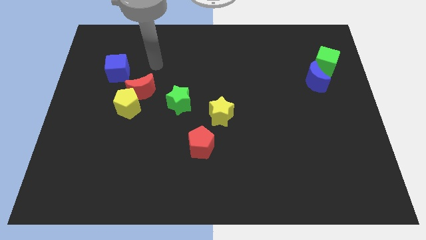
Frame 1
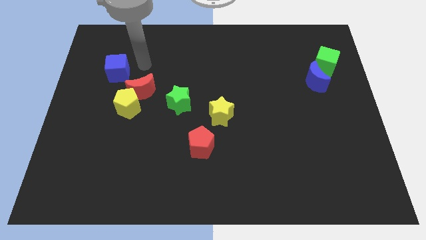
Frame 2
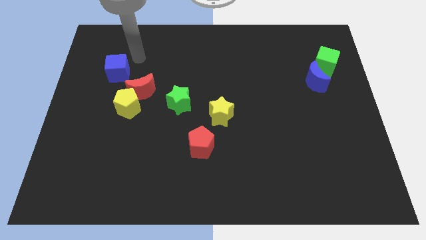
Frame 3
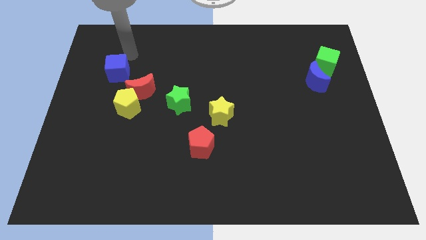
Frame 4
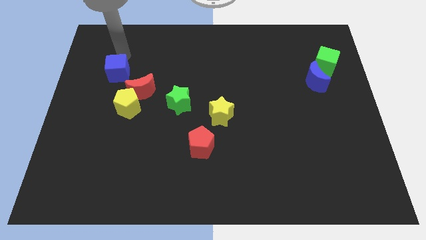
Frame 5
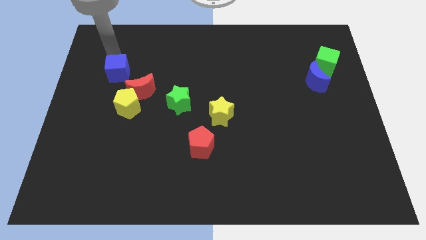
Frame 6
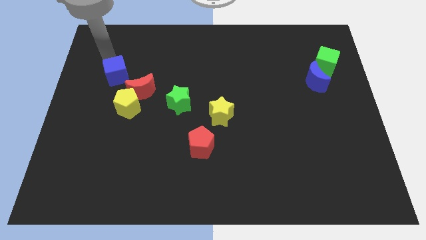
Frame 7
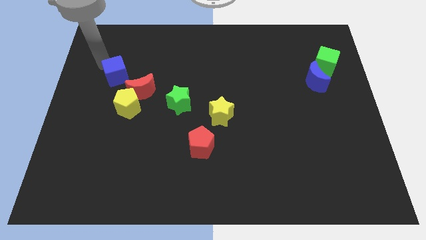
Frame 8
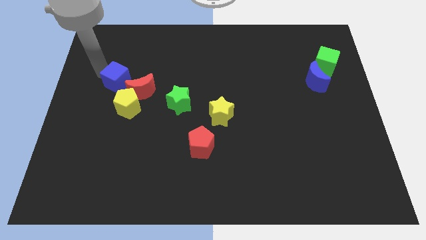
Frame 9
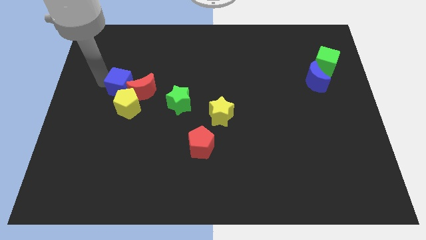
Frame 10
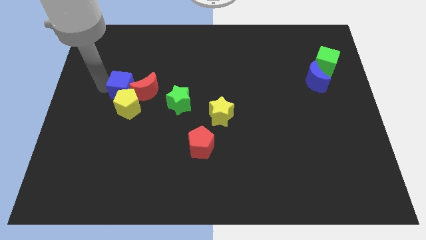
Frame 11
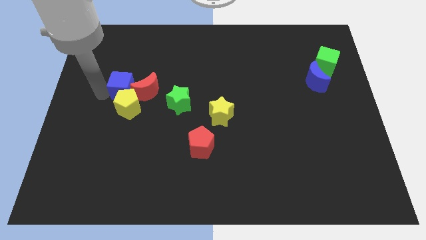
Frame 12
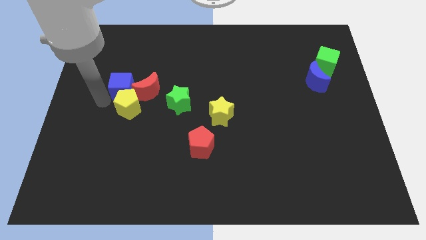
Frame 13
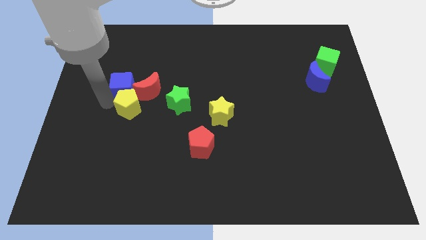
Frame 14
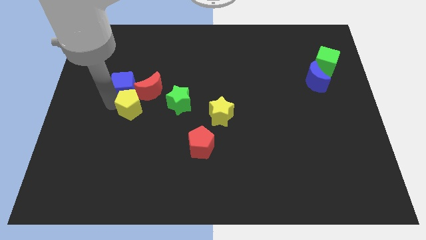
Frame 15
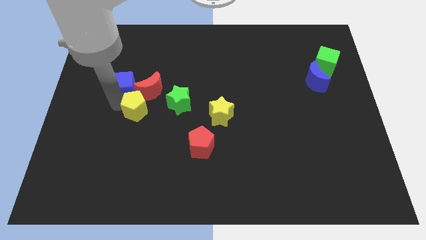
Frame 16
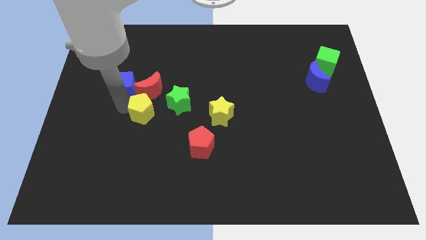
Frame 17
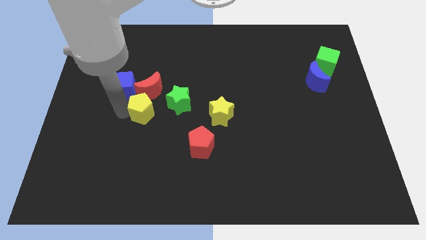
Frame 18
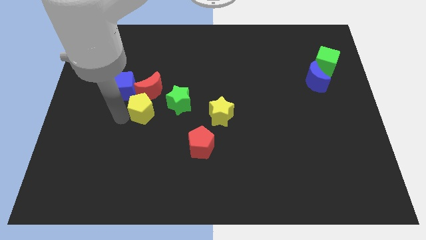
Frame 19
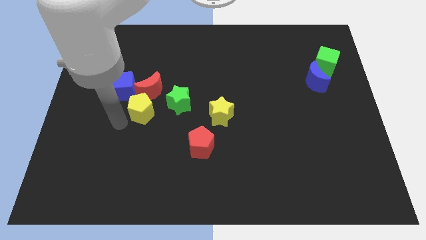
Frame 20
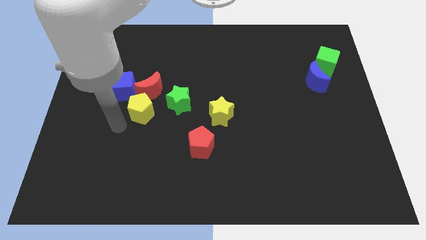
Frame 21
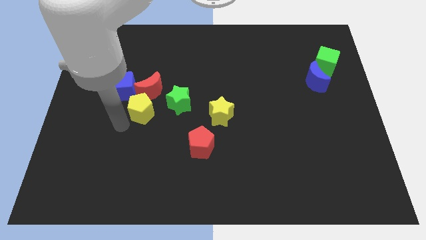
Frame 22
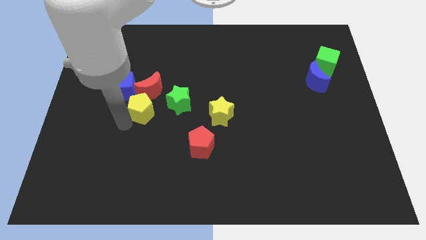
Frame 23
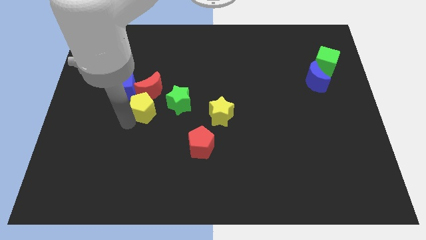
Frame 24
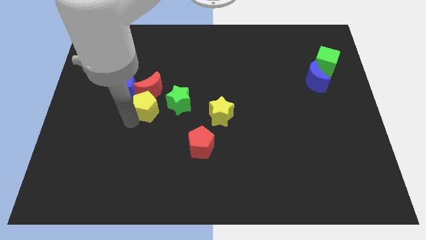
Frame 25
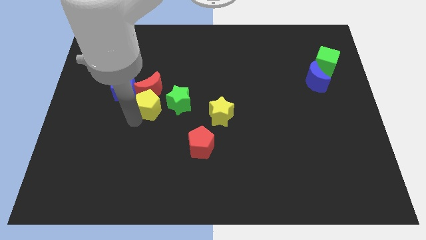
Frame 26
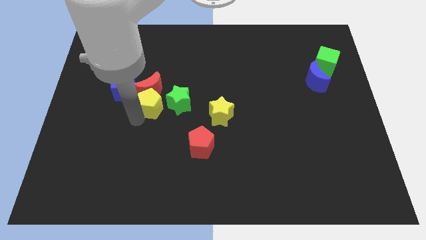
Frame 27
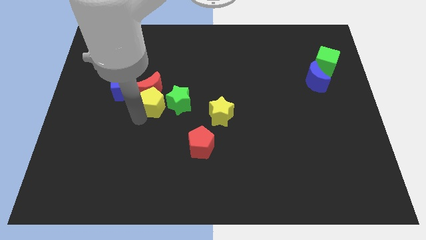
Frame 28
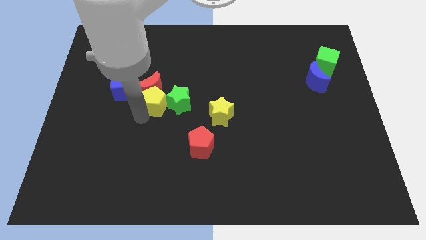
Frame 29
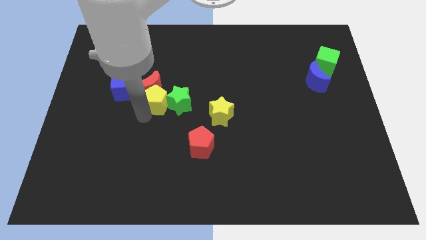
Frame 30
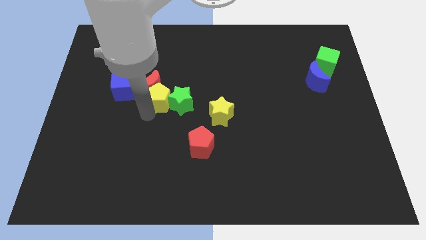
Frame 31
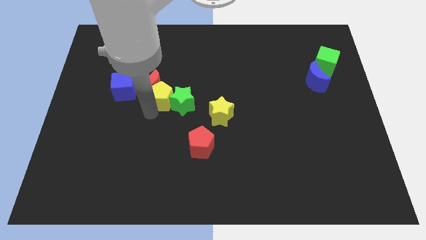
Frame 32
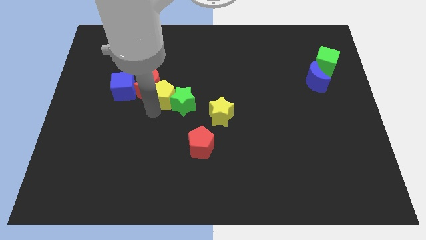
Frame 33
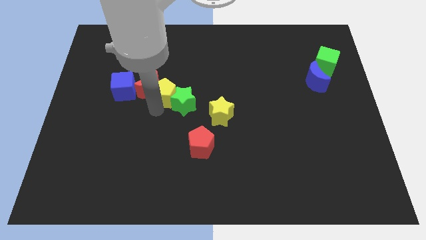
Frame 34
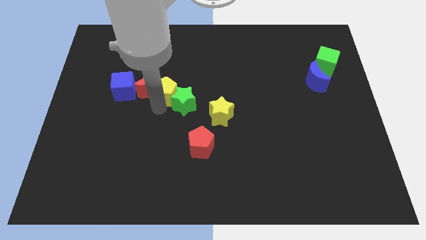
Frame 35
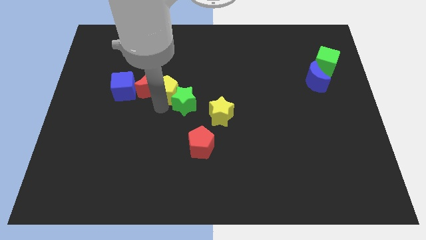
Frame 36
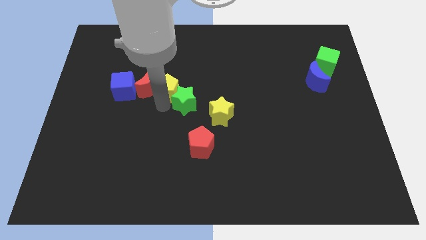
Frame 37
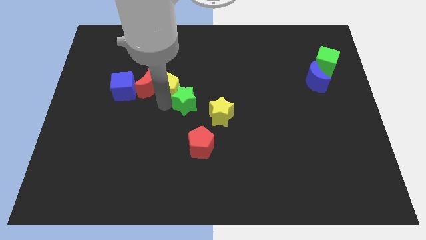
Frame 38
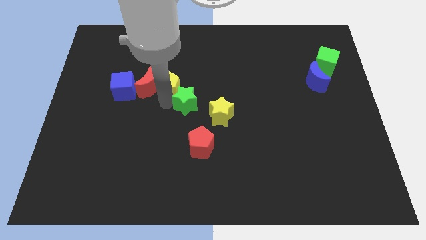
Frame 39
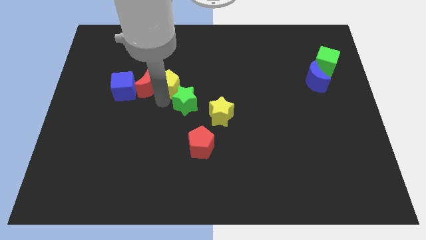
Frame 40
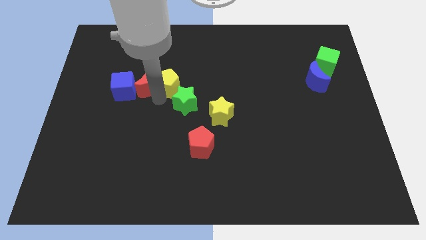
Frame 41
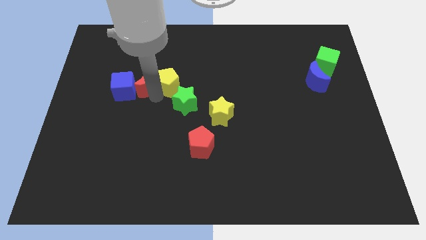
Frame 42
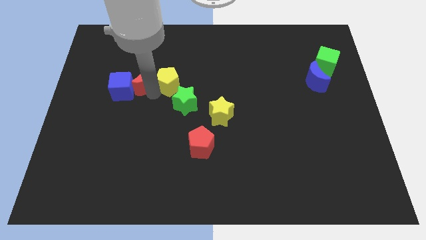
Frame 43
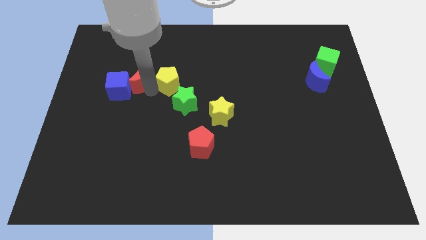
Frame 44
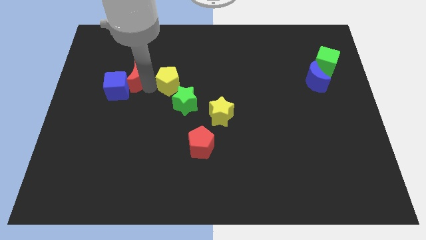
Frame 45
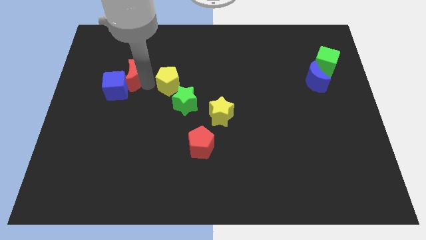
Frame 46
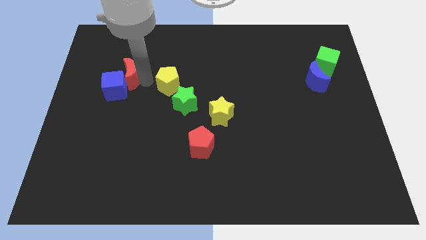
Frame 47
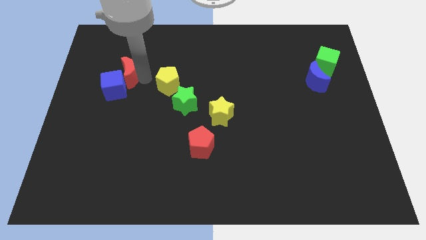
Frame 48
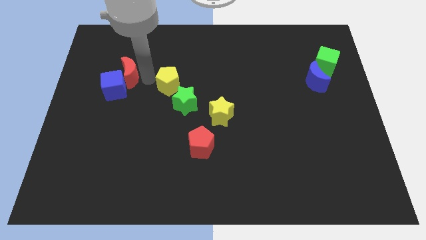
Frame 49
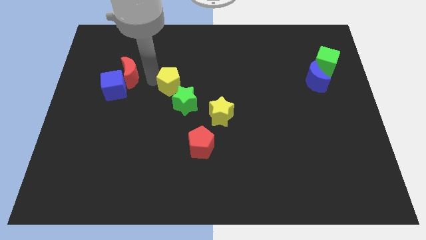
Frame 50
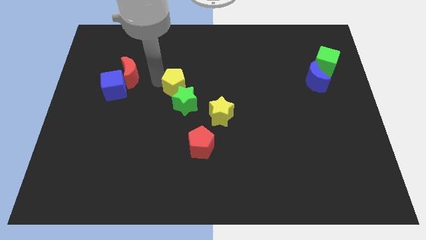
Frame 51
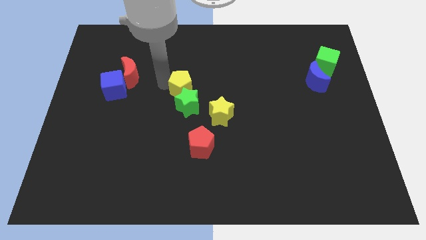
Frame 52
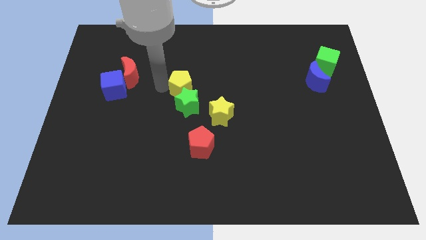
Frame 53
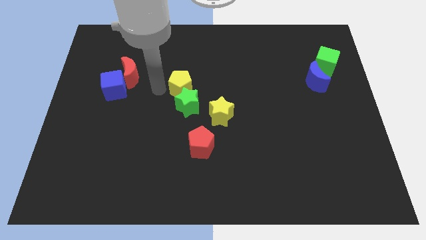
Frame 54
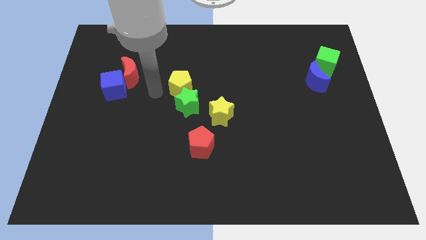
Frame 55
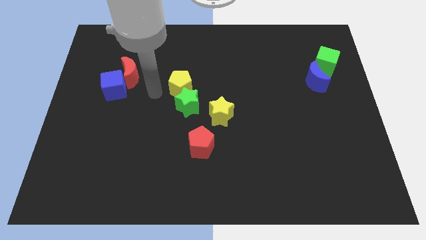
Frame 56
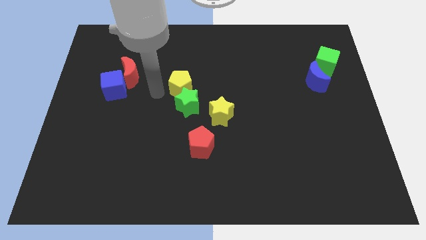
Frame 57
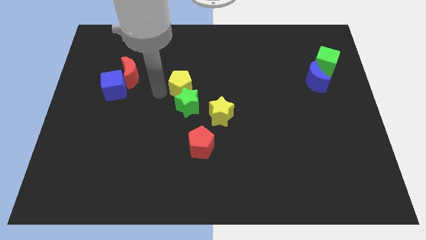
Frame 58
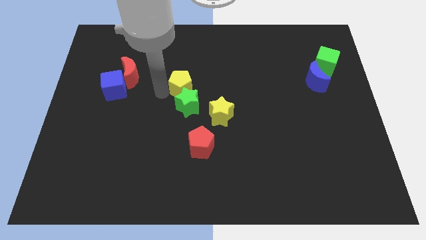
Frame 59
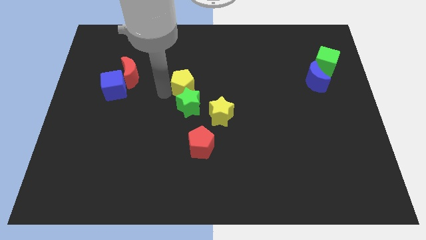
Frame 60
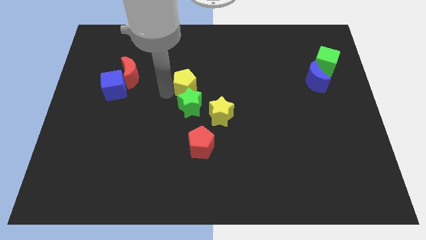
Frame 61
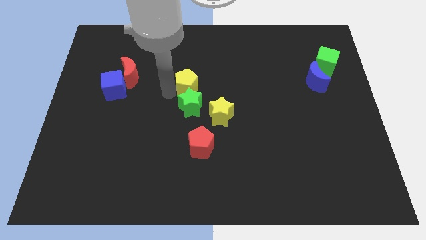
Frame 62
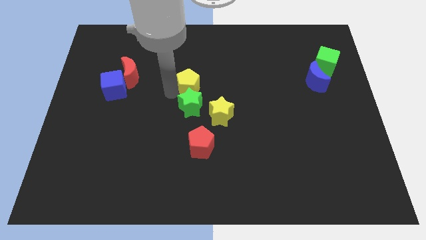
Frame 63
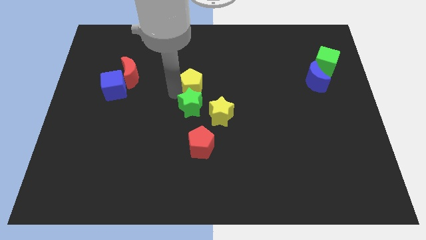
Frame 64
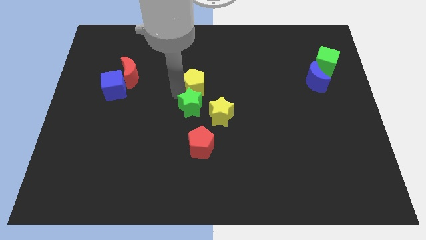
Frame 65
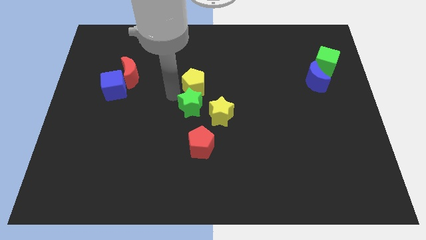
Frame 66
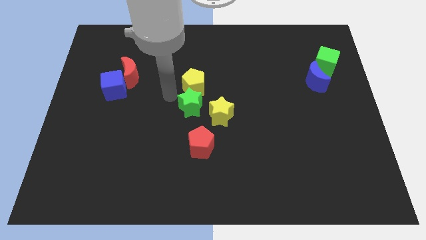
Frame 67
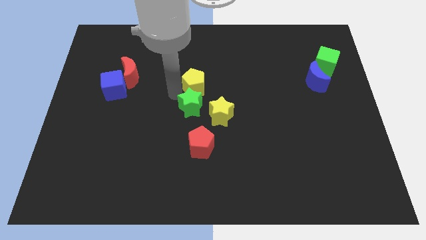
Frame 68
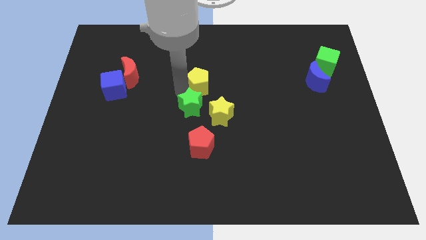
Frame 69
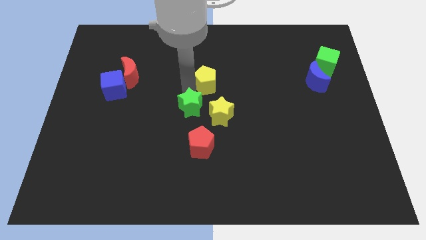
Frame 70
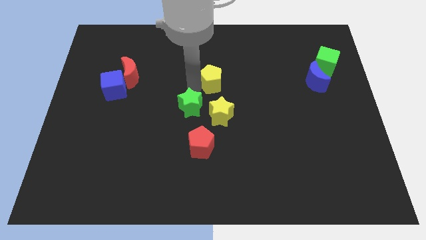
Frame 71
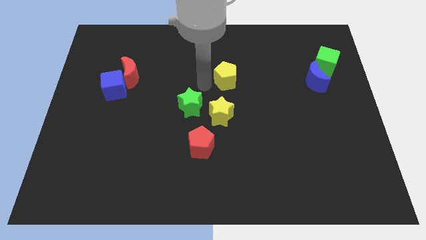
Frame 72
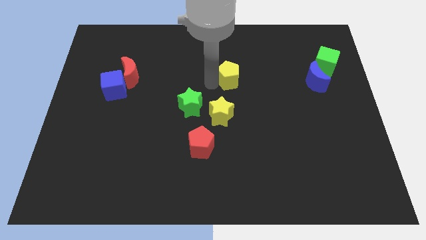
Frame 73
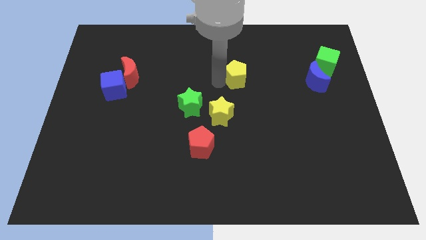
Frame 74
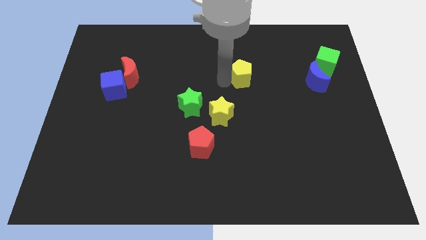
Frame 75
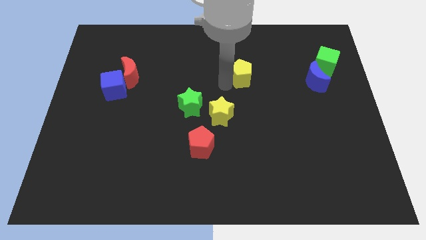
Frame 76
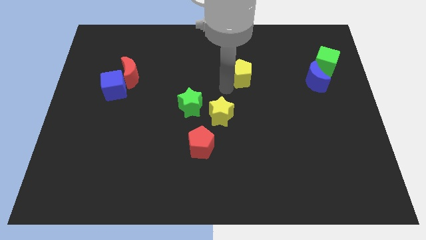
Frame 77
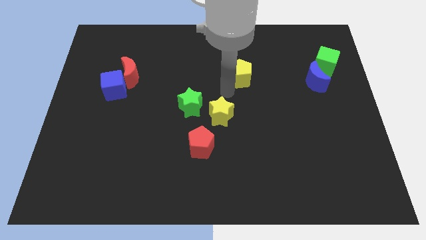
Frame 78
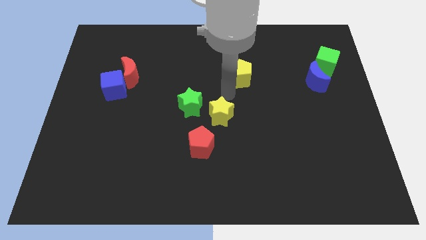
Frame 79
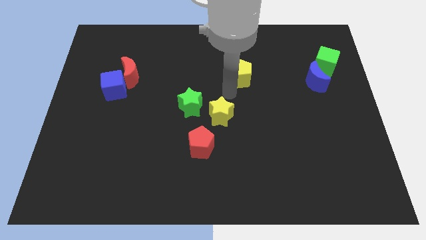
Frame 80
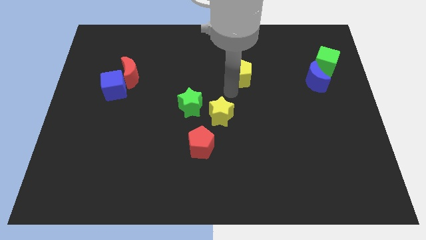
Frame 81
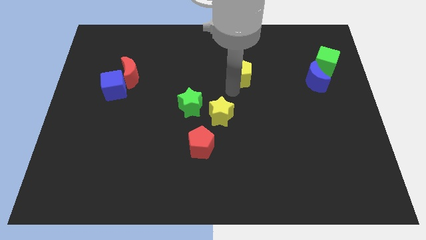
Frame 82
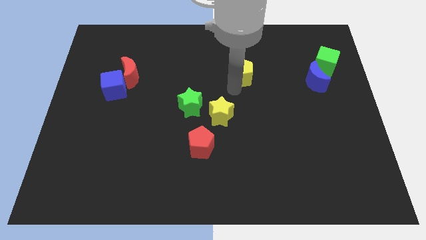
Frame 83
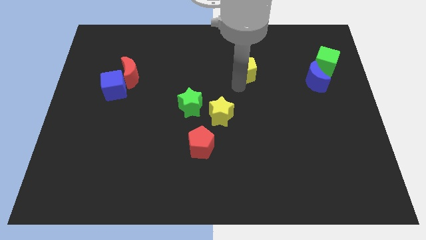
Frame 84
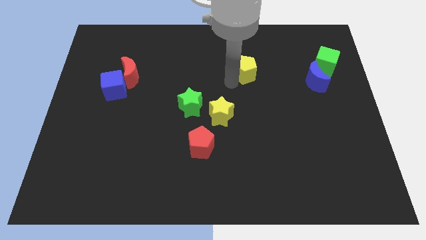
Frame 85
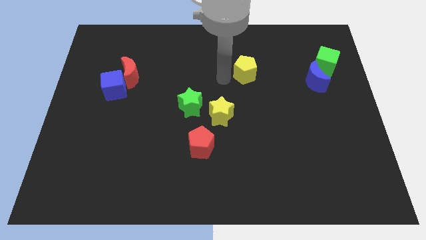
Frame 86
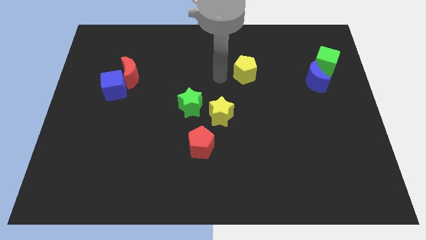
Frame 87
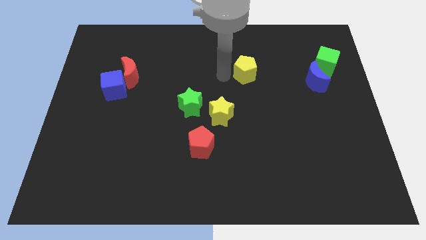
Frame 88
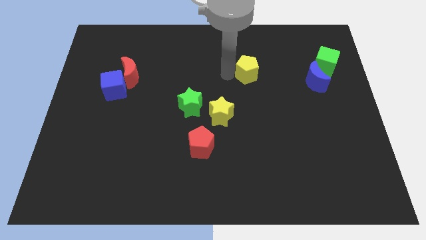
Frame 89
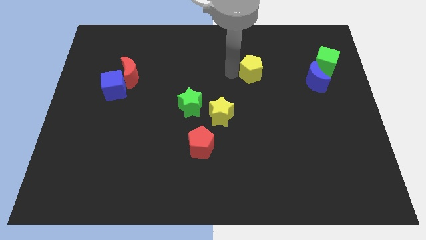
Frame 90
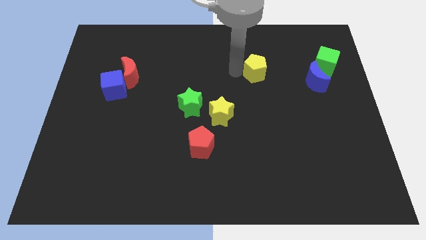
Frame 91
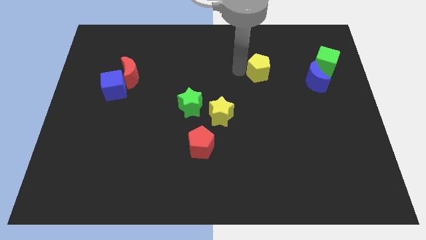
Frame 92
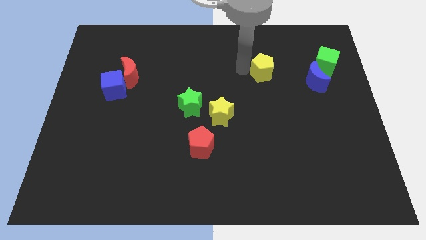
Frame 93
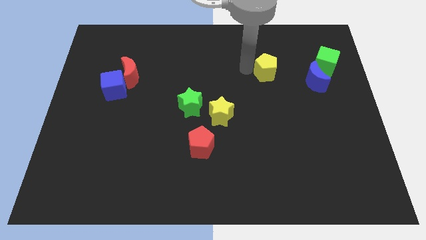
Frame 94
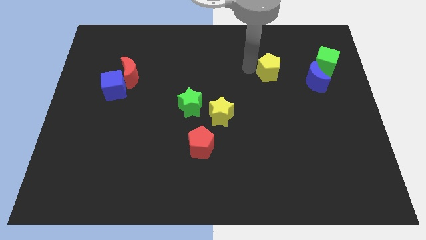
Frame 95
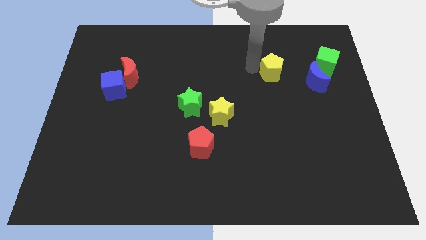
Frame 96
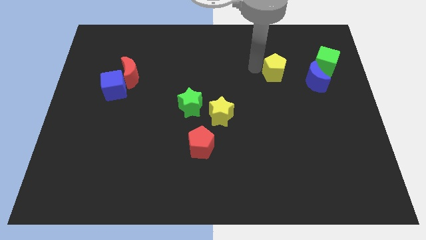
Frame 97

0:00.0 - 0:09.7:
slide the yellow pentagon to the top left of the blue moon
